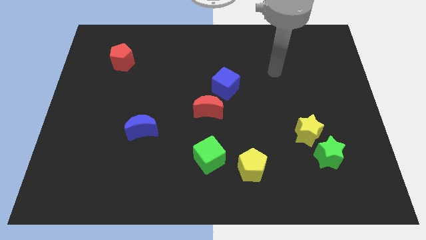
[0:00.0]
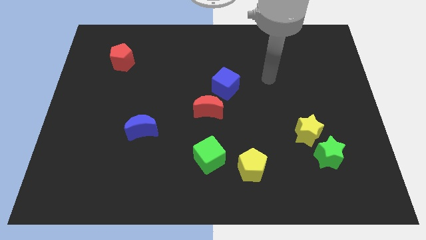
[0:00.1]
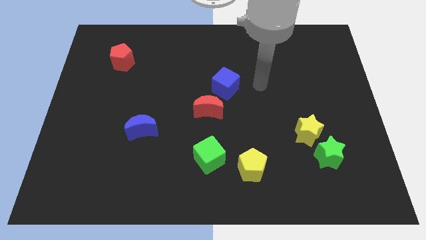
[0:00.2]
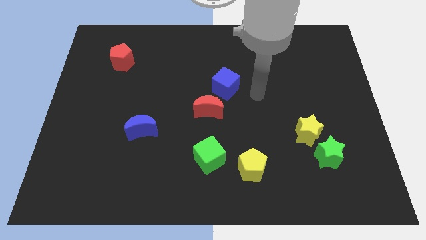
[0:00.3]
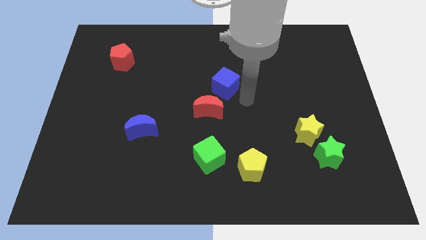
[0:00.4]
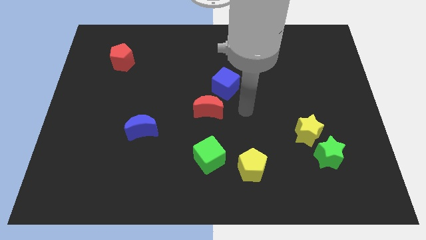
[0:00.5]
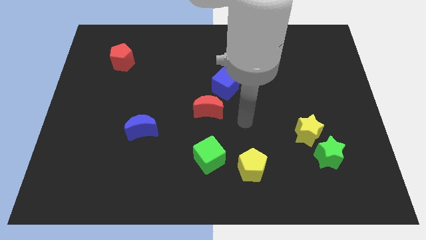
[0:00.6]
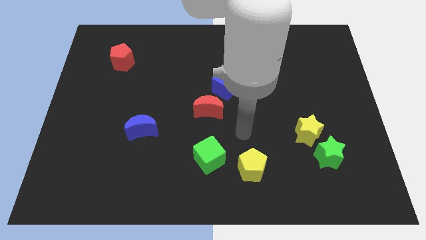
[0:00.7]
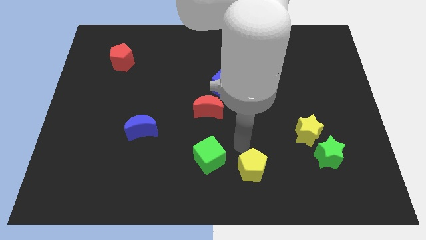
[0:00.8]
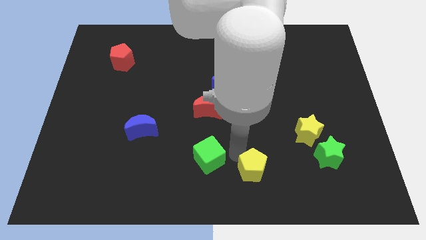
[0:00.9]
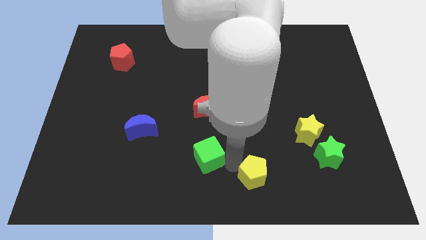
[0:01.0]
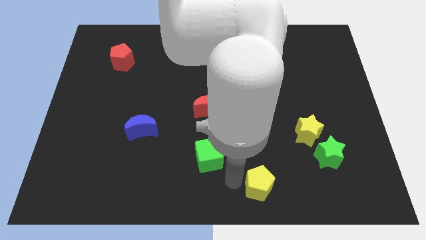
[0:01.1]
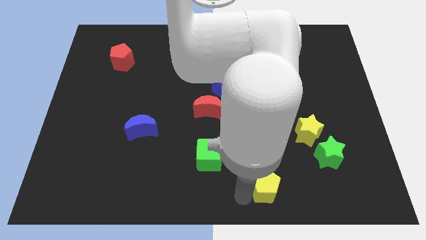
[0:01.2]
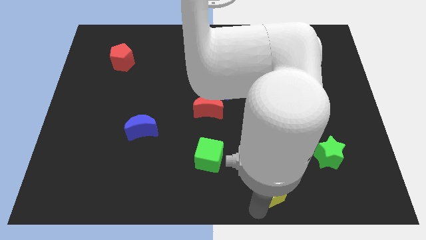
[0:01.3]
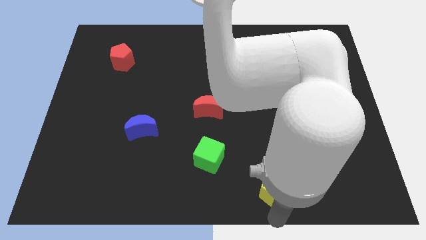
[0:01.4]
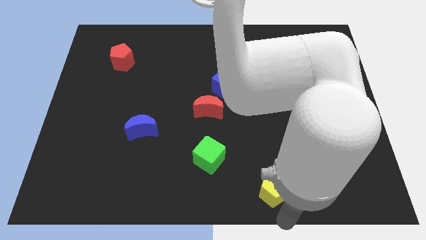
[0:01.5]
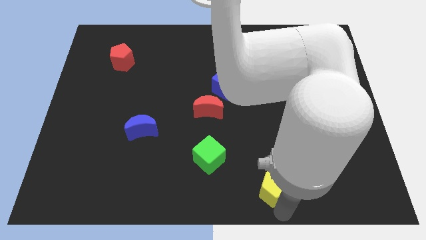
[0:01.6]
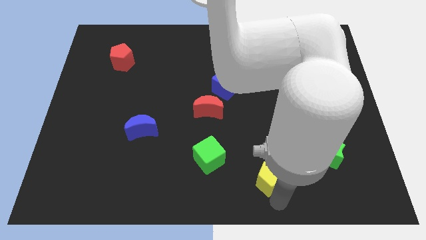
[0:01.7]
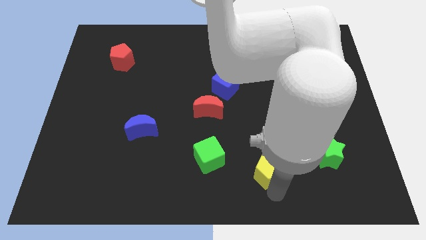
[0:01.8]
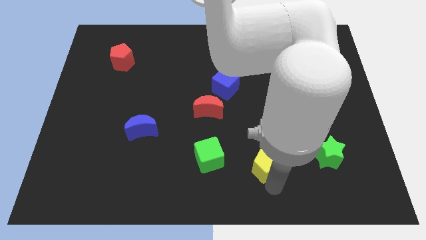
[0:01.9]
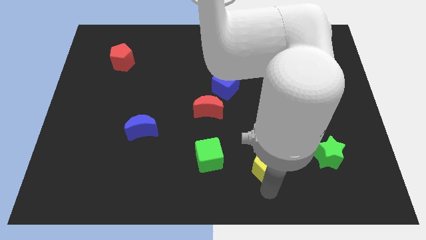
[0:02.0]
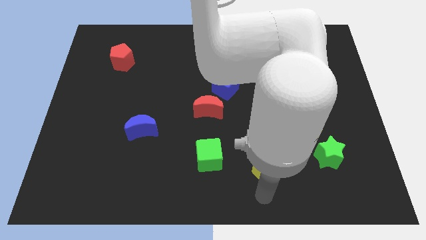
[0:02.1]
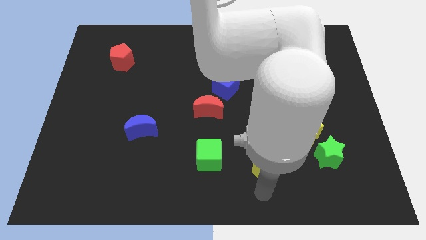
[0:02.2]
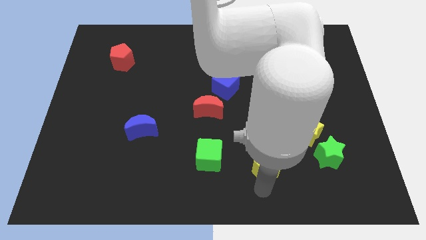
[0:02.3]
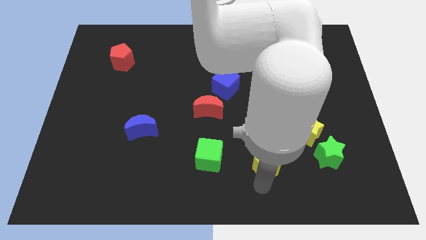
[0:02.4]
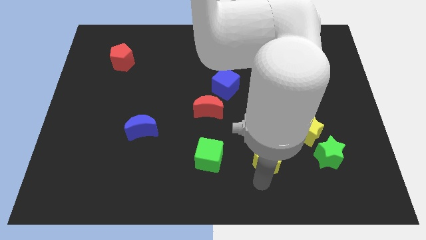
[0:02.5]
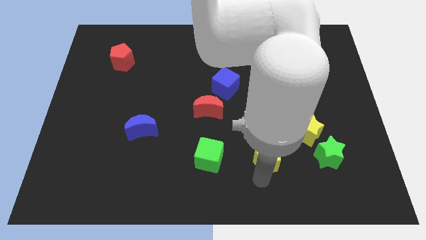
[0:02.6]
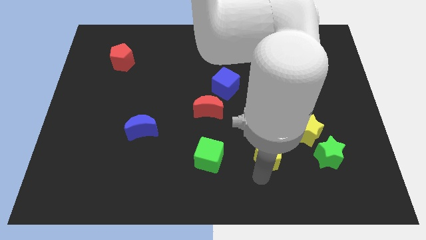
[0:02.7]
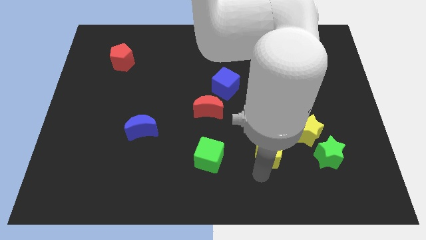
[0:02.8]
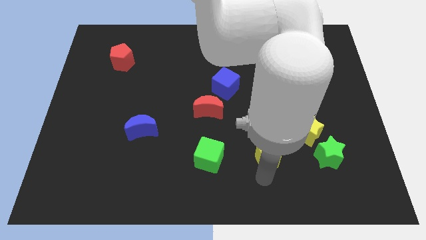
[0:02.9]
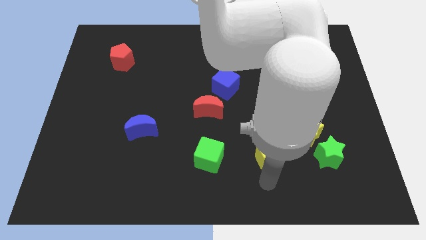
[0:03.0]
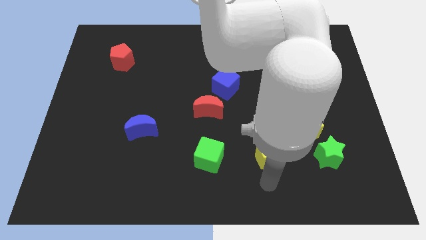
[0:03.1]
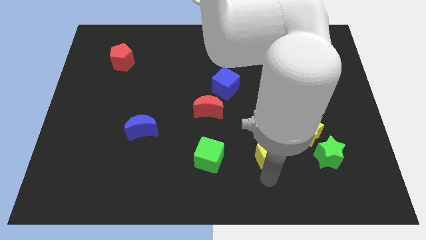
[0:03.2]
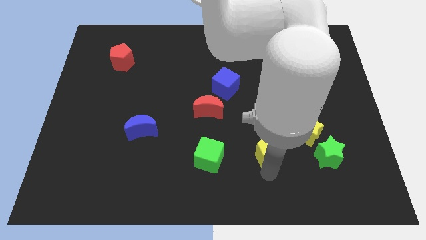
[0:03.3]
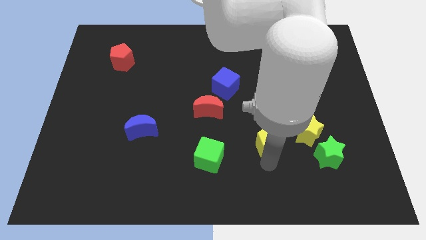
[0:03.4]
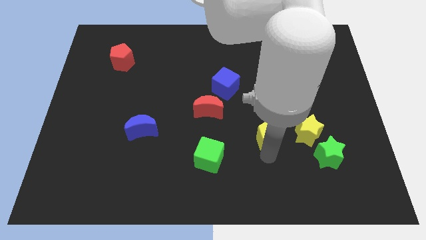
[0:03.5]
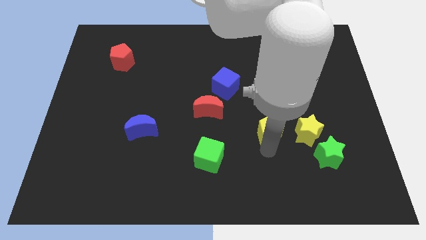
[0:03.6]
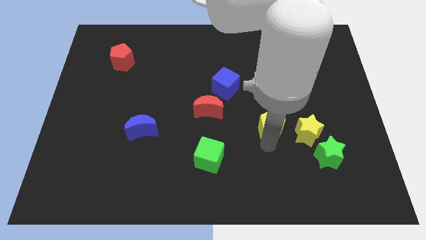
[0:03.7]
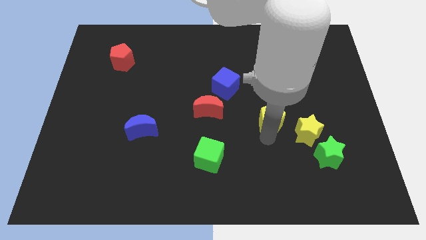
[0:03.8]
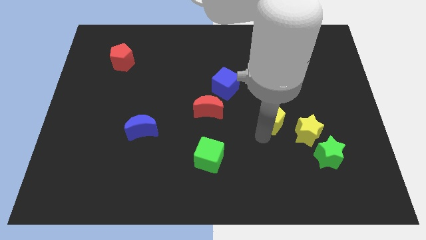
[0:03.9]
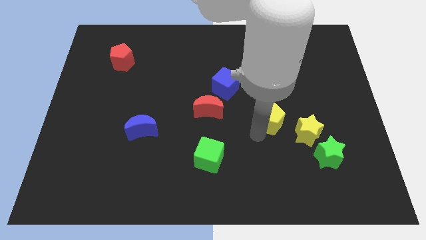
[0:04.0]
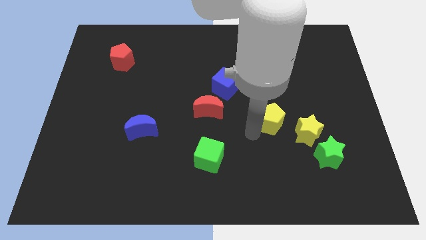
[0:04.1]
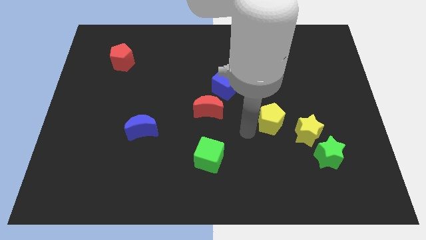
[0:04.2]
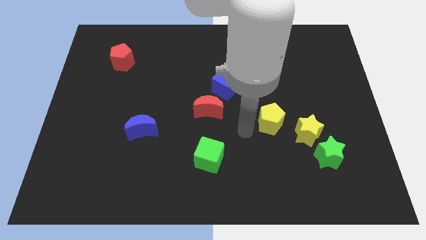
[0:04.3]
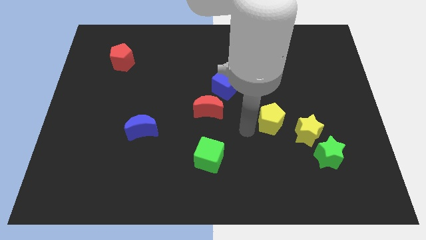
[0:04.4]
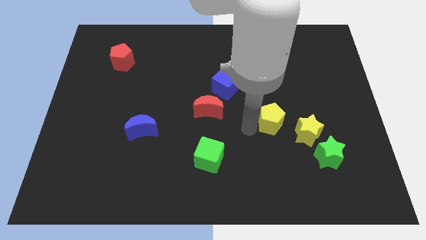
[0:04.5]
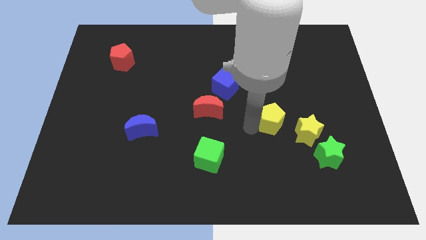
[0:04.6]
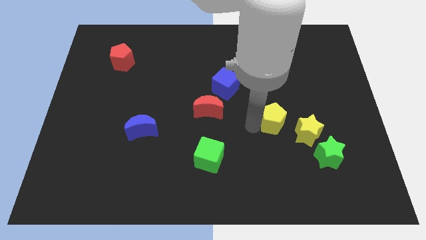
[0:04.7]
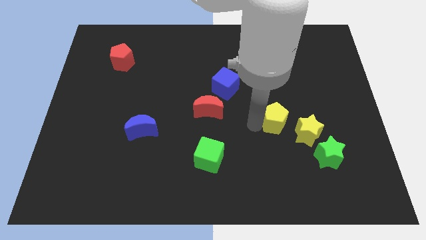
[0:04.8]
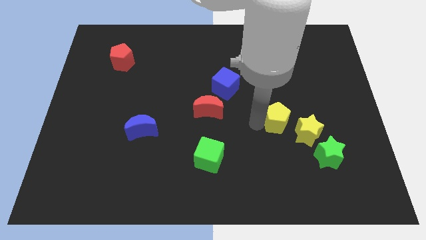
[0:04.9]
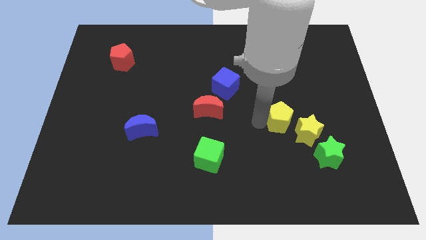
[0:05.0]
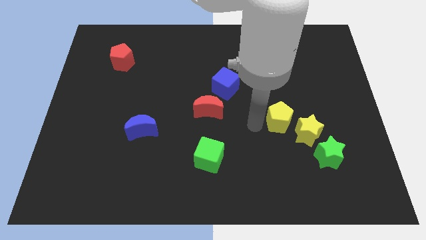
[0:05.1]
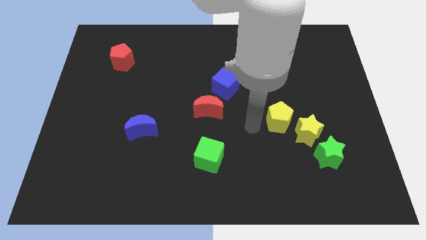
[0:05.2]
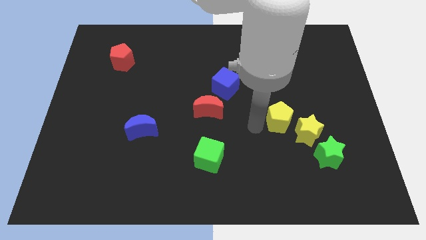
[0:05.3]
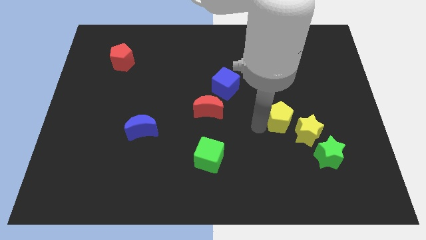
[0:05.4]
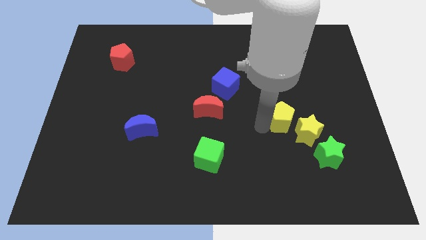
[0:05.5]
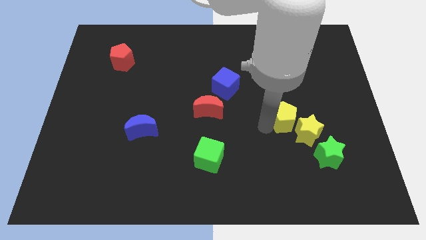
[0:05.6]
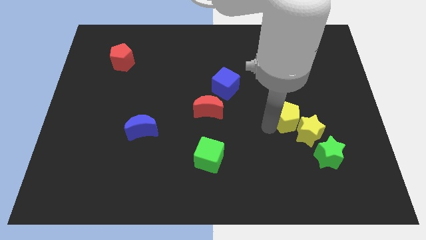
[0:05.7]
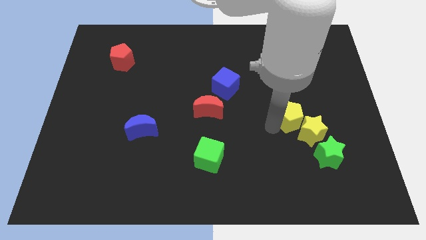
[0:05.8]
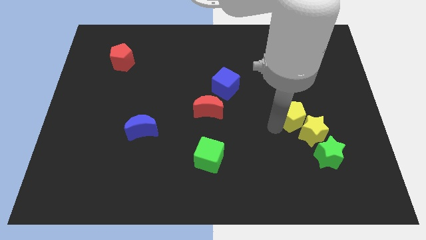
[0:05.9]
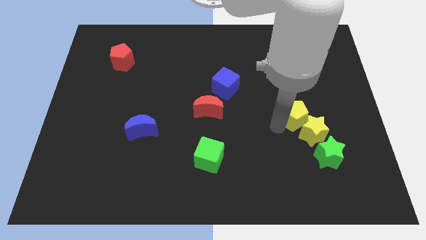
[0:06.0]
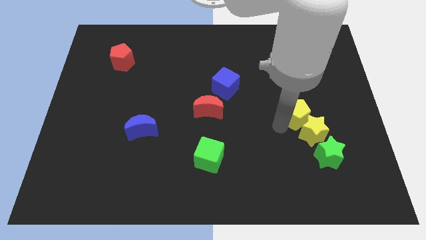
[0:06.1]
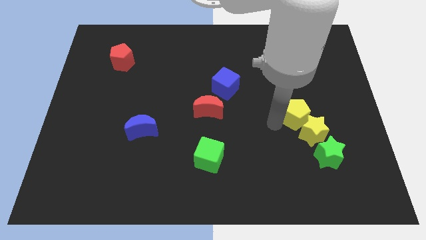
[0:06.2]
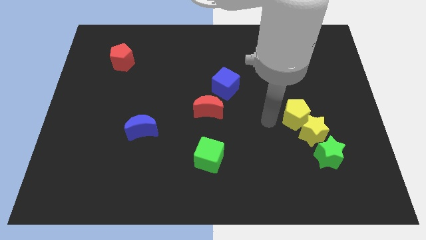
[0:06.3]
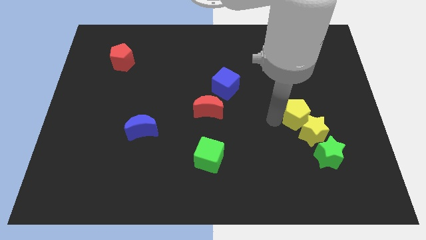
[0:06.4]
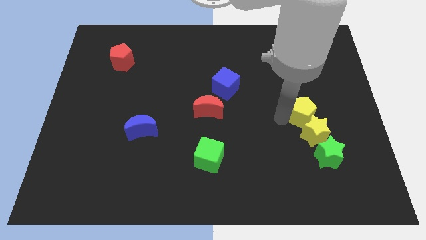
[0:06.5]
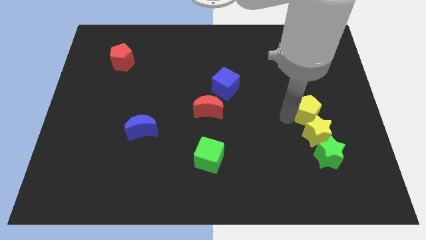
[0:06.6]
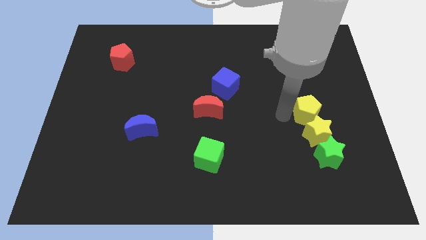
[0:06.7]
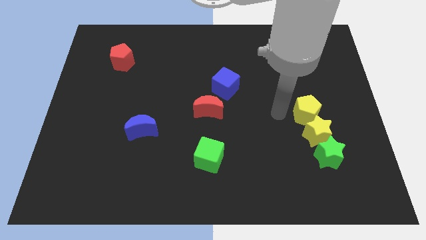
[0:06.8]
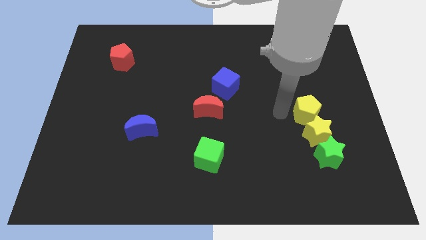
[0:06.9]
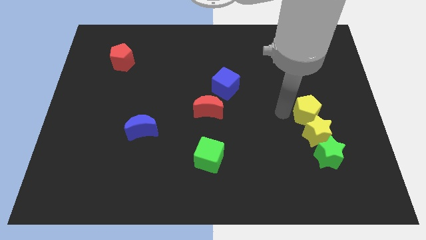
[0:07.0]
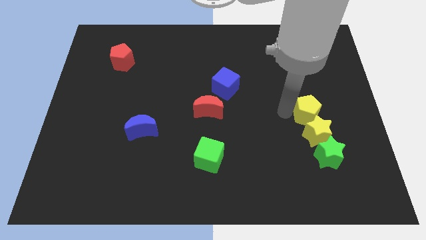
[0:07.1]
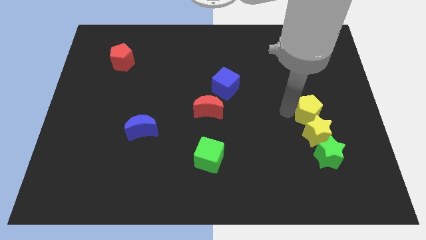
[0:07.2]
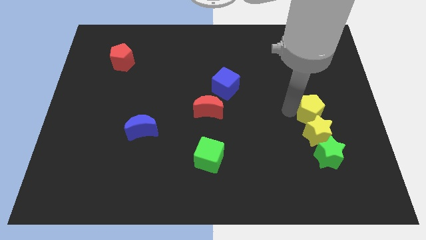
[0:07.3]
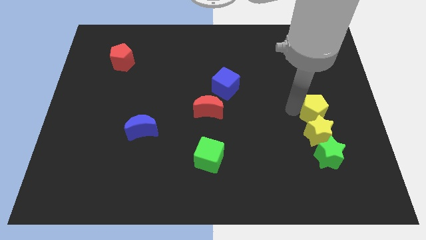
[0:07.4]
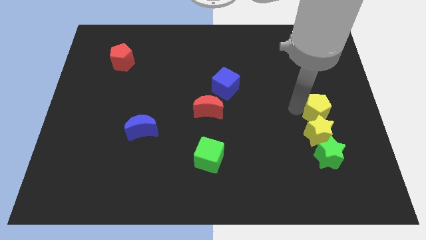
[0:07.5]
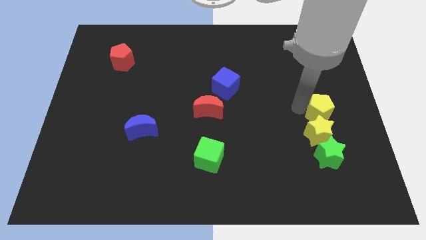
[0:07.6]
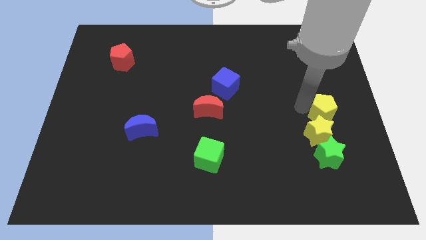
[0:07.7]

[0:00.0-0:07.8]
put the yellow pentagon to the center right
